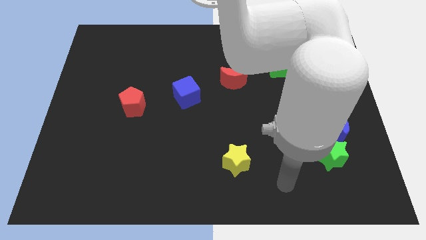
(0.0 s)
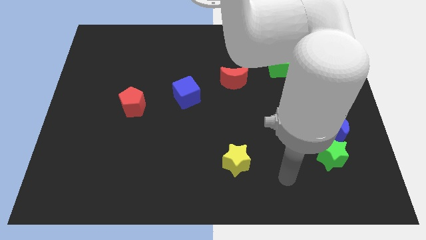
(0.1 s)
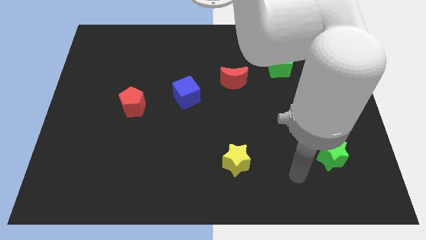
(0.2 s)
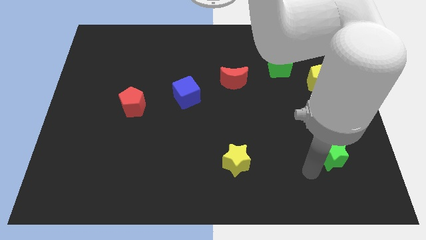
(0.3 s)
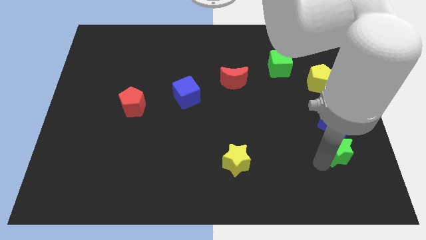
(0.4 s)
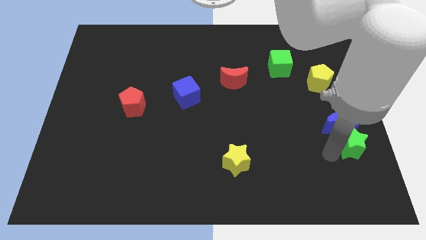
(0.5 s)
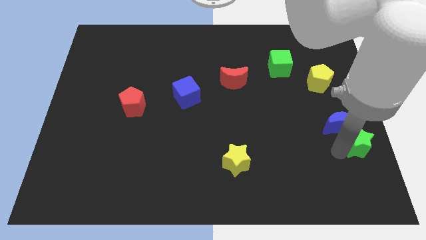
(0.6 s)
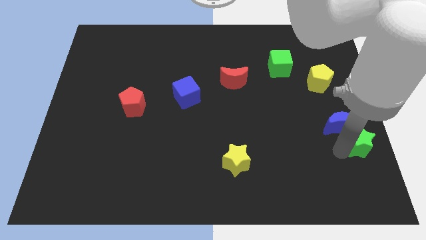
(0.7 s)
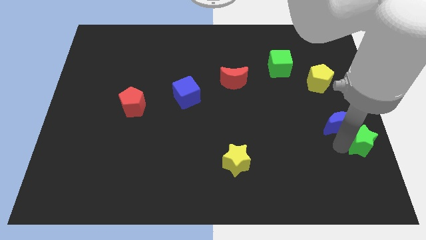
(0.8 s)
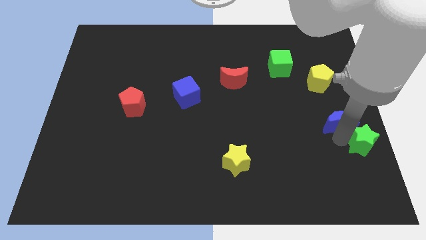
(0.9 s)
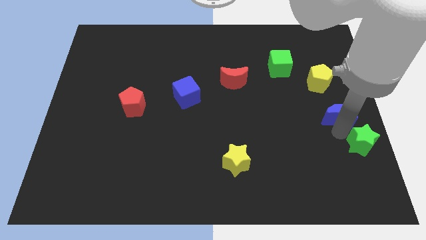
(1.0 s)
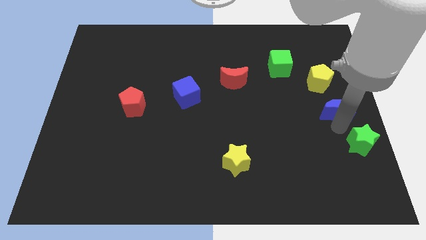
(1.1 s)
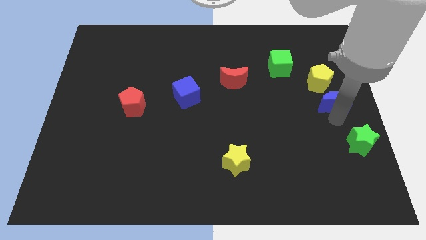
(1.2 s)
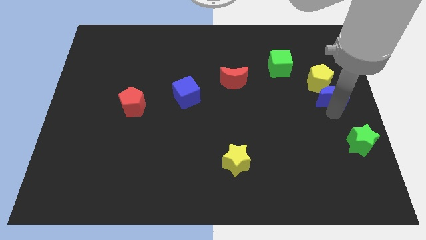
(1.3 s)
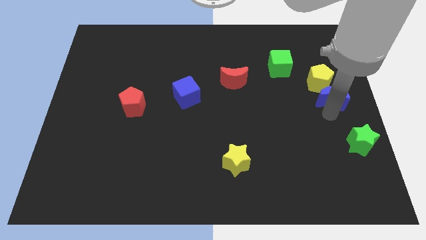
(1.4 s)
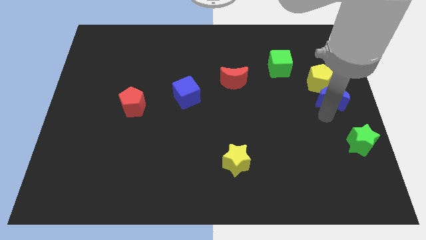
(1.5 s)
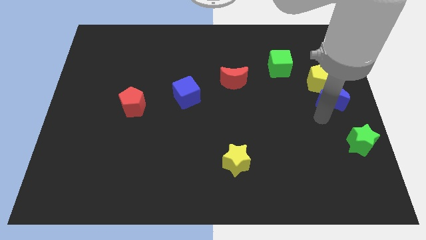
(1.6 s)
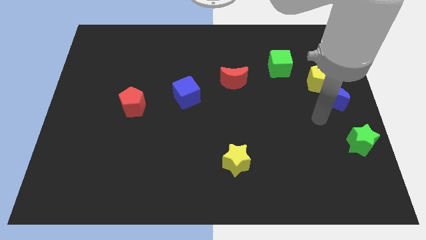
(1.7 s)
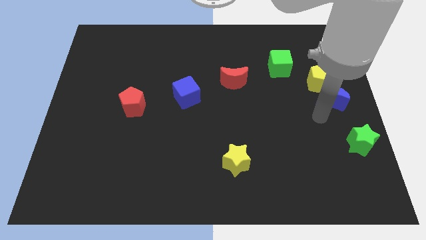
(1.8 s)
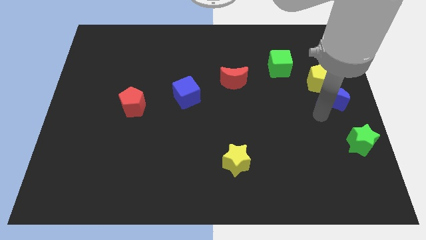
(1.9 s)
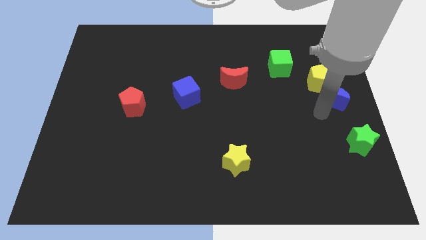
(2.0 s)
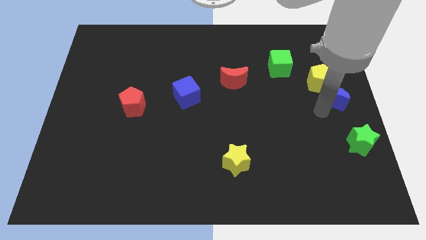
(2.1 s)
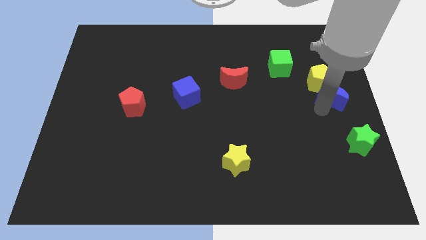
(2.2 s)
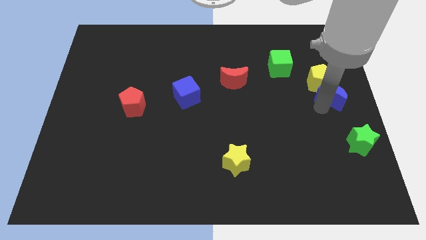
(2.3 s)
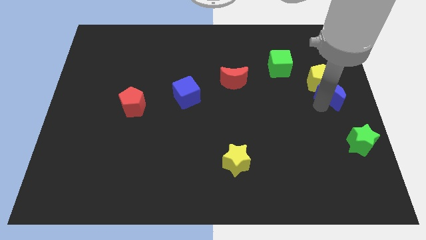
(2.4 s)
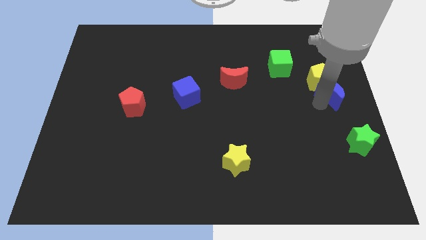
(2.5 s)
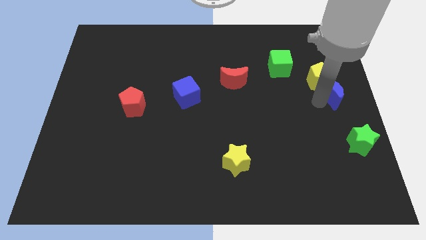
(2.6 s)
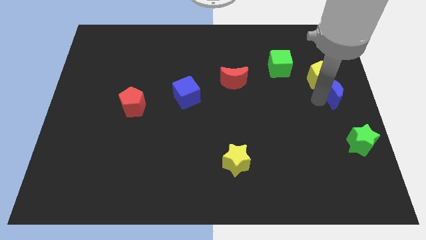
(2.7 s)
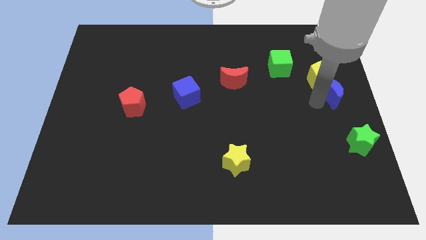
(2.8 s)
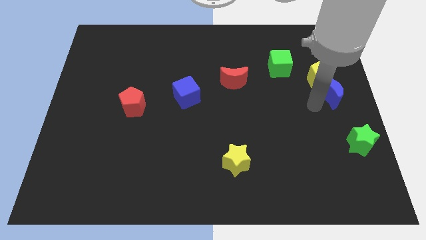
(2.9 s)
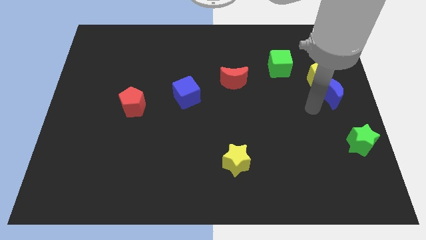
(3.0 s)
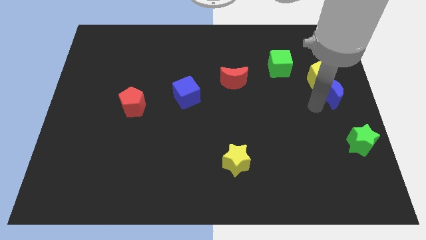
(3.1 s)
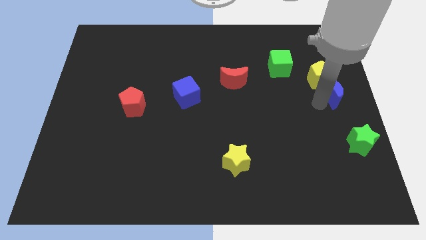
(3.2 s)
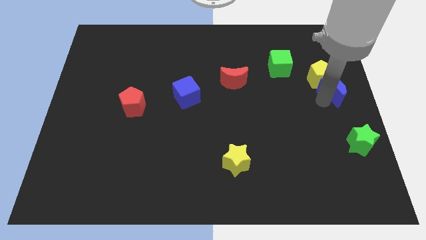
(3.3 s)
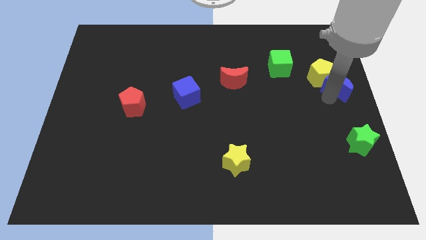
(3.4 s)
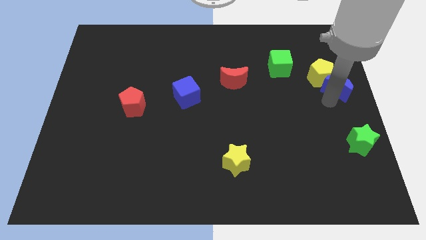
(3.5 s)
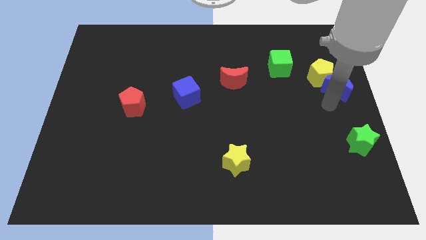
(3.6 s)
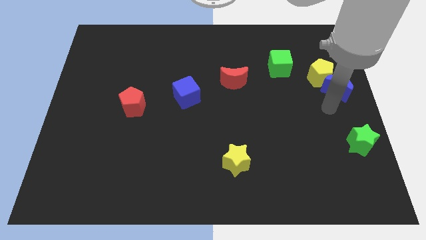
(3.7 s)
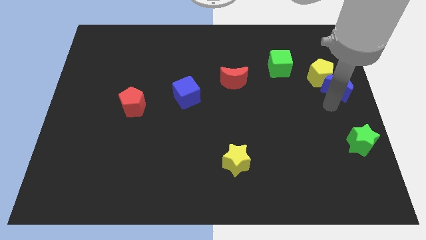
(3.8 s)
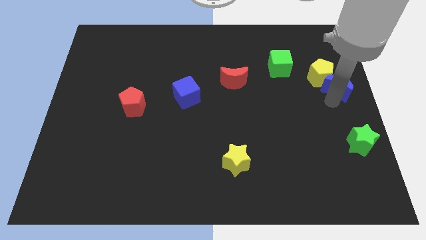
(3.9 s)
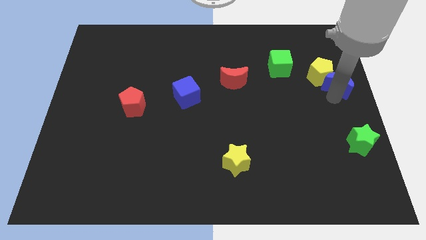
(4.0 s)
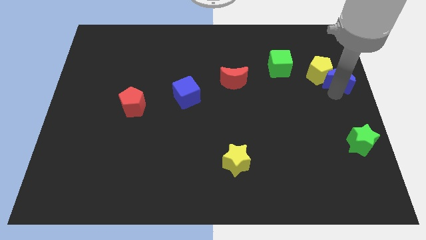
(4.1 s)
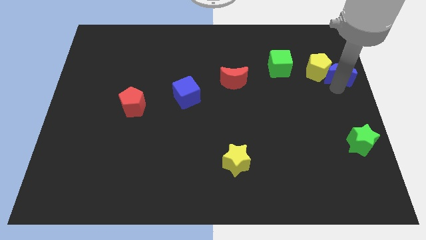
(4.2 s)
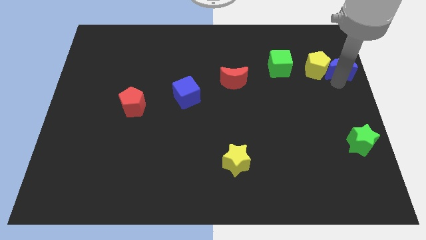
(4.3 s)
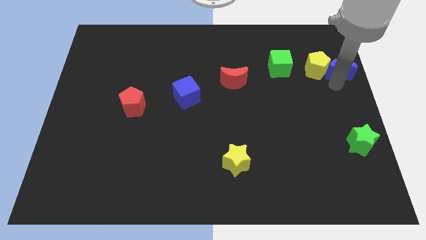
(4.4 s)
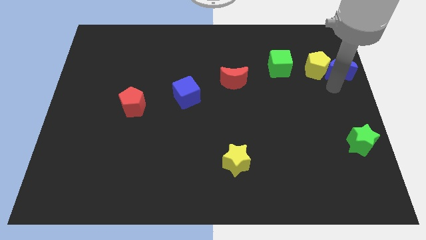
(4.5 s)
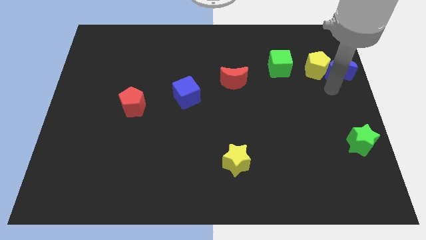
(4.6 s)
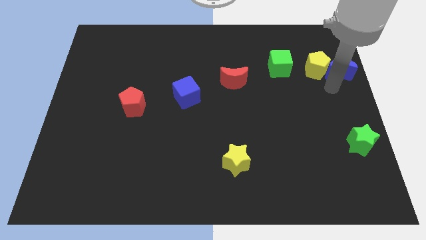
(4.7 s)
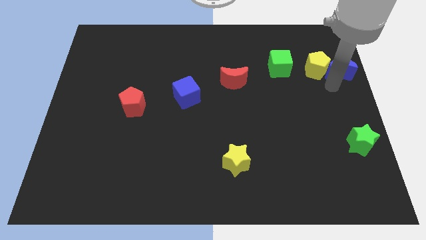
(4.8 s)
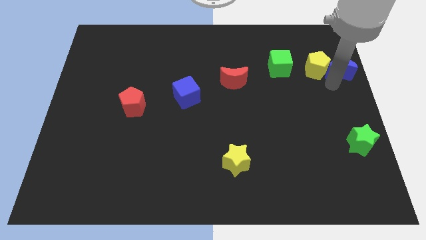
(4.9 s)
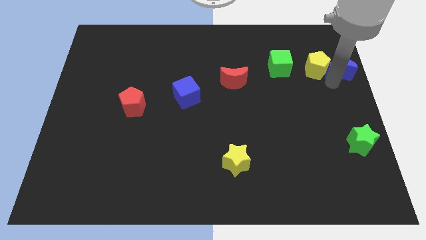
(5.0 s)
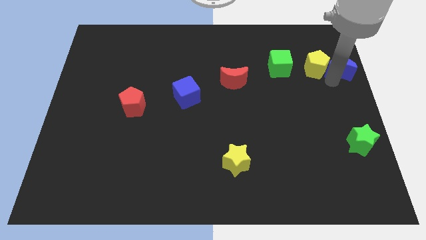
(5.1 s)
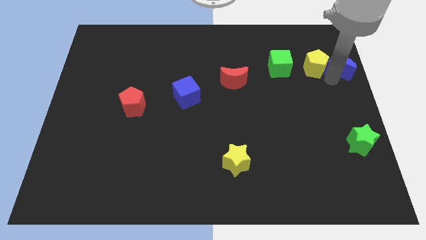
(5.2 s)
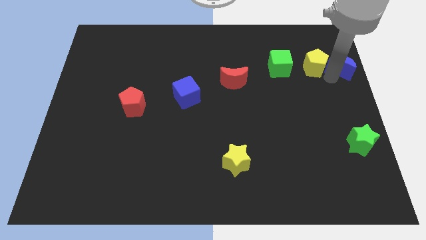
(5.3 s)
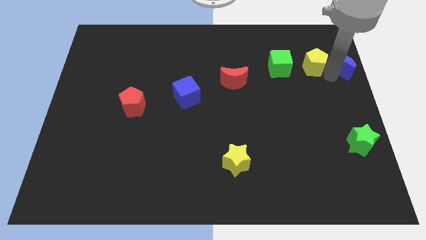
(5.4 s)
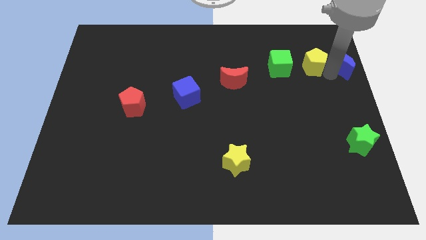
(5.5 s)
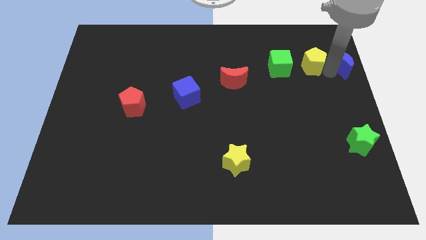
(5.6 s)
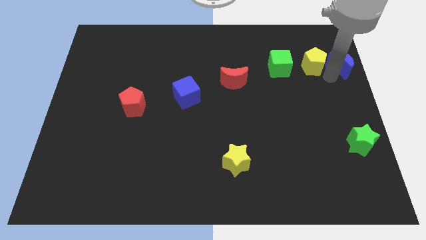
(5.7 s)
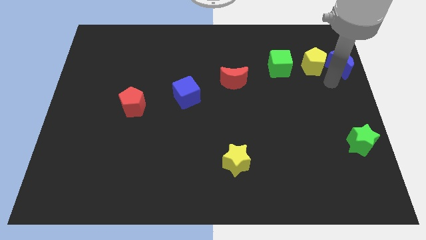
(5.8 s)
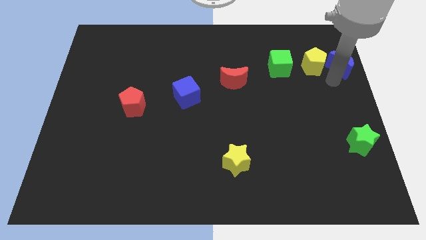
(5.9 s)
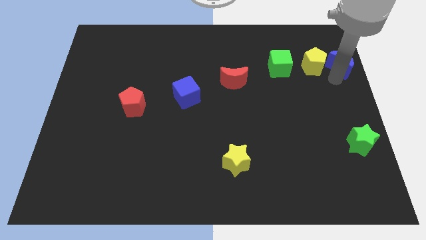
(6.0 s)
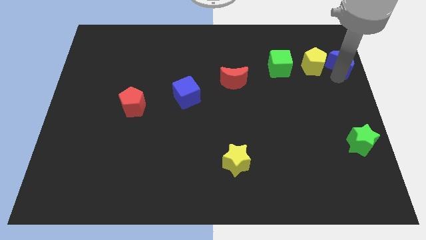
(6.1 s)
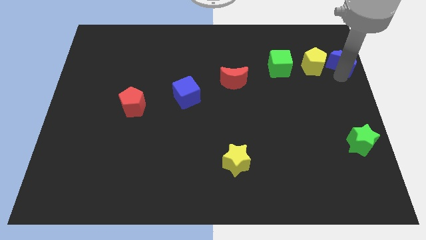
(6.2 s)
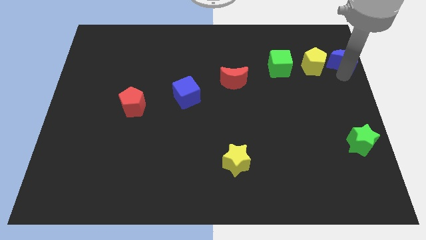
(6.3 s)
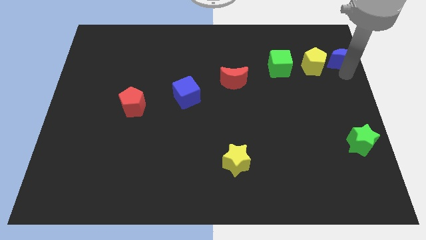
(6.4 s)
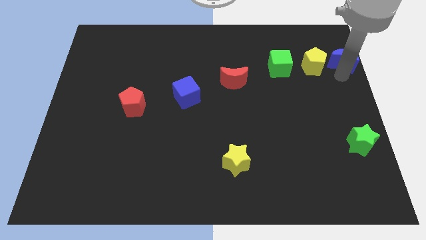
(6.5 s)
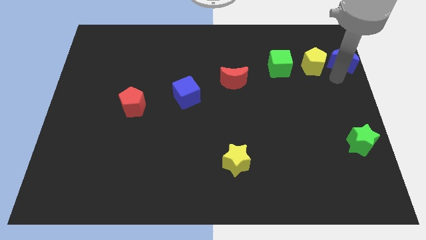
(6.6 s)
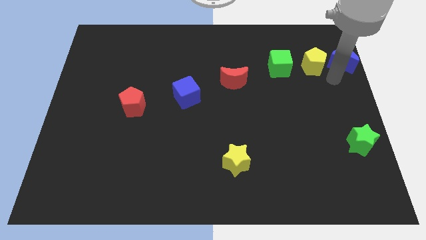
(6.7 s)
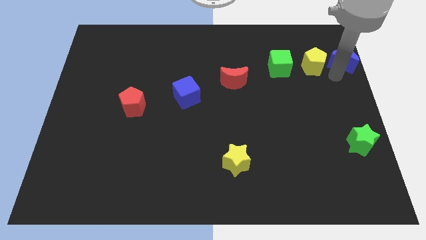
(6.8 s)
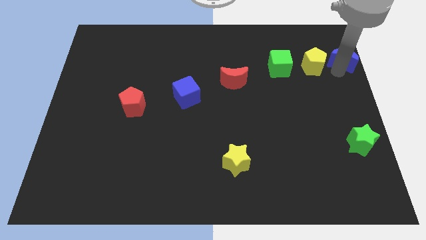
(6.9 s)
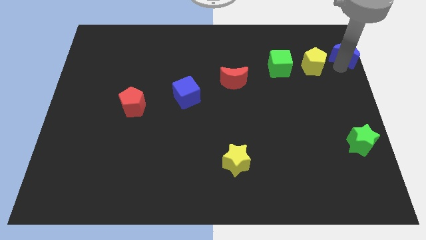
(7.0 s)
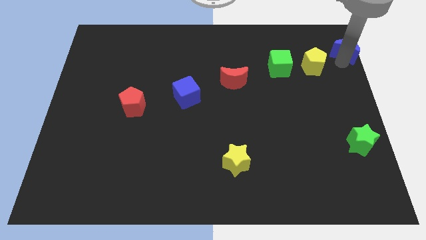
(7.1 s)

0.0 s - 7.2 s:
put the blue moon to the top right corner
